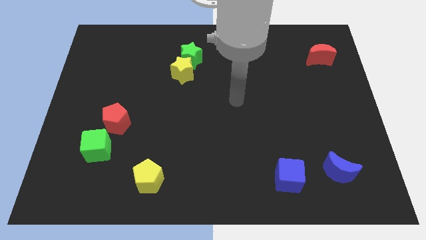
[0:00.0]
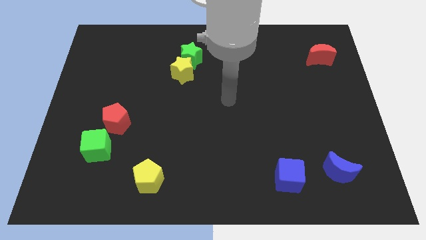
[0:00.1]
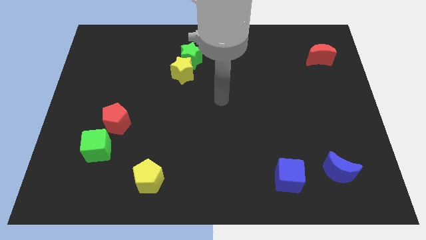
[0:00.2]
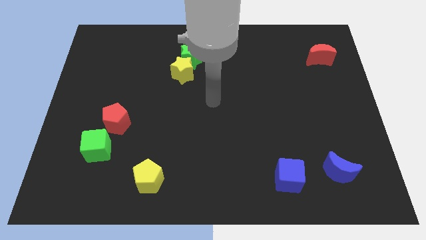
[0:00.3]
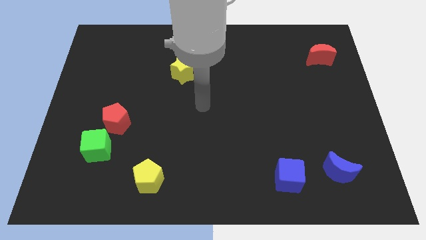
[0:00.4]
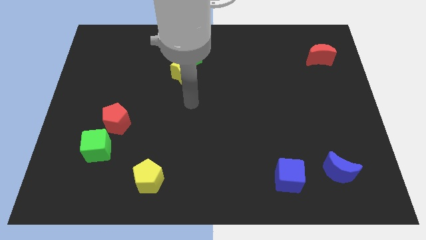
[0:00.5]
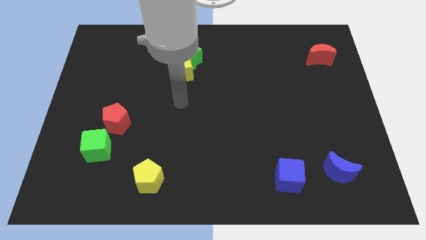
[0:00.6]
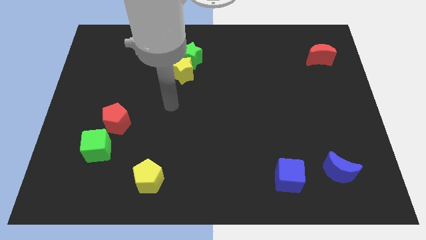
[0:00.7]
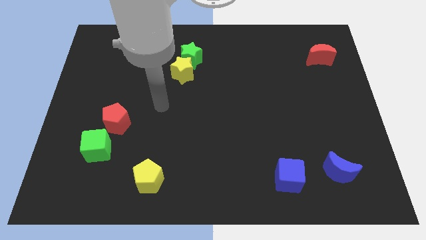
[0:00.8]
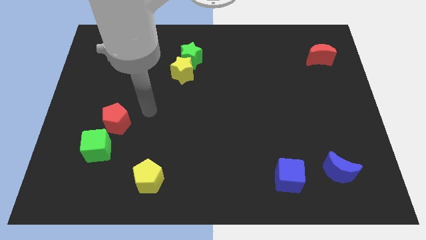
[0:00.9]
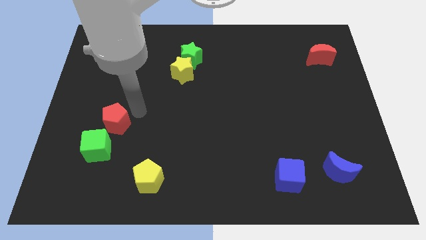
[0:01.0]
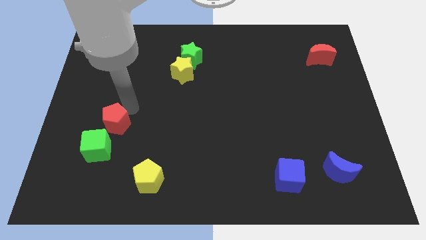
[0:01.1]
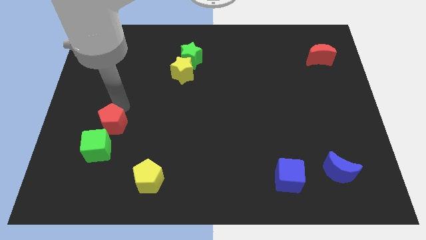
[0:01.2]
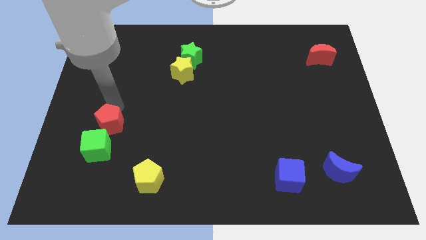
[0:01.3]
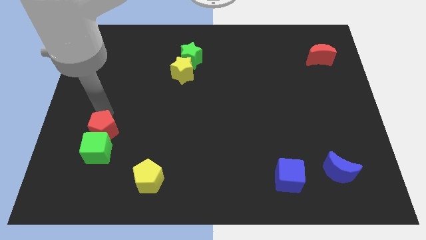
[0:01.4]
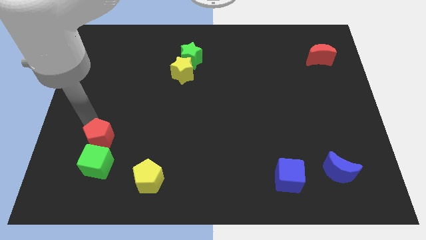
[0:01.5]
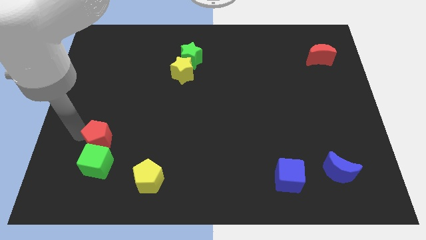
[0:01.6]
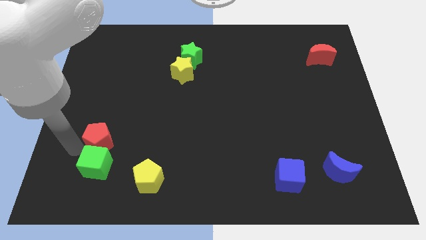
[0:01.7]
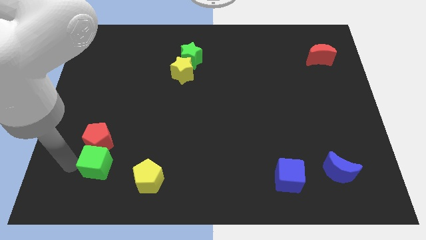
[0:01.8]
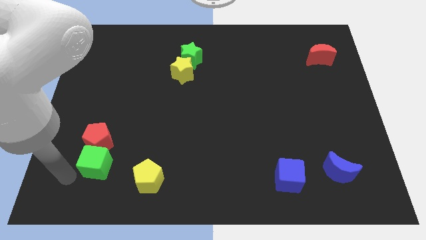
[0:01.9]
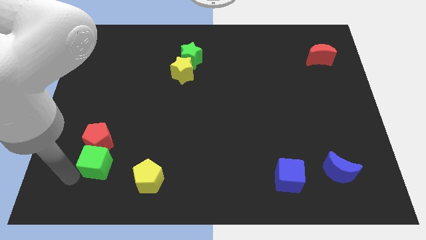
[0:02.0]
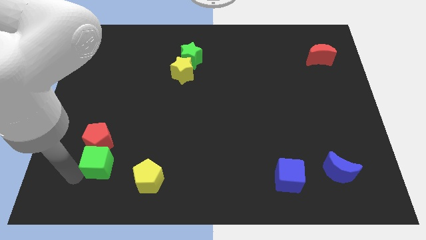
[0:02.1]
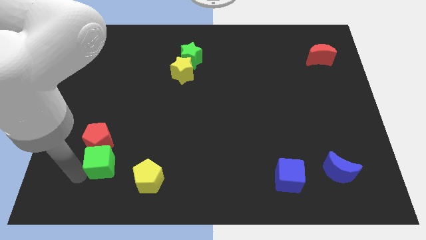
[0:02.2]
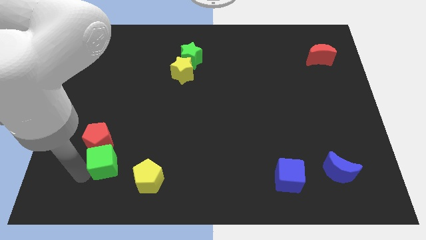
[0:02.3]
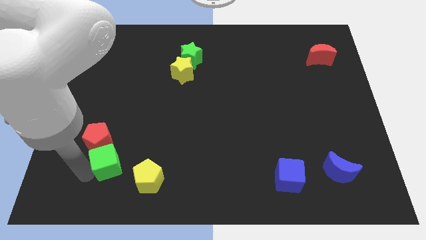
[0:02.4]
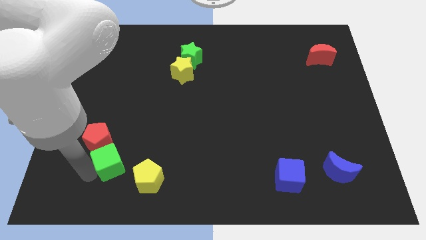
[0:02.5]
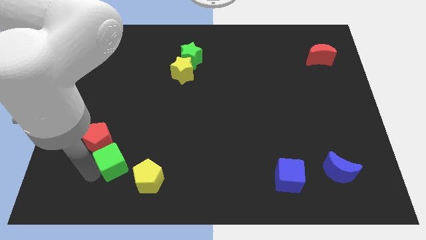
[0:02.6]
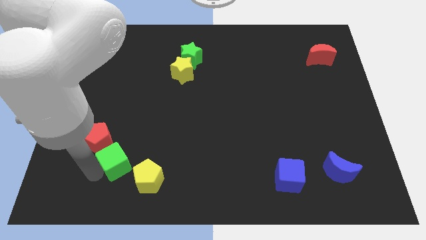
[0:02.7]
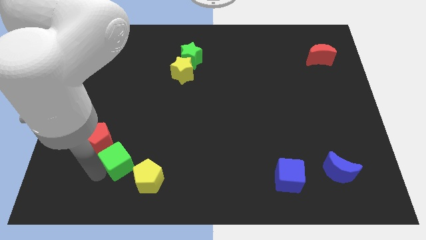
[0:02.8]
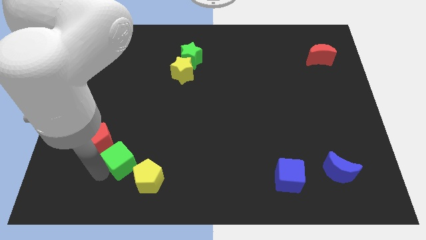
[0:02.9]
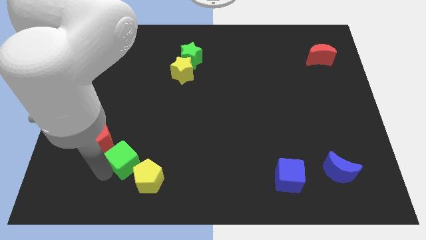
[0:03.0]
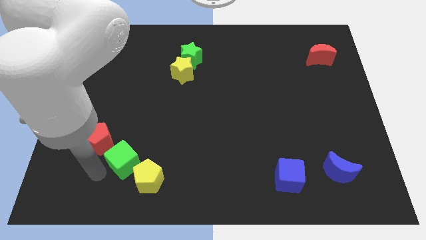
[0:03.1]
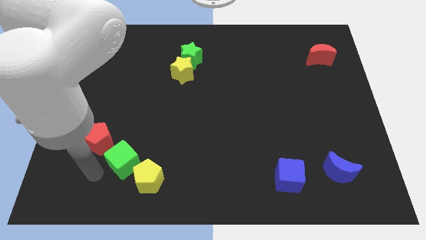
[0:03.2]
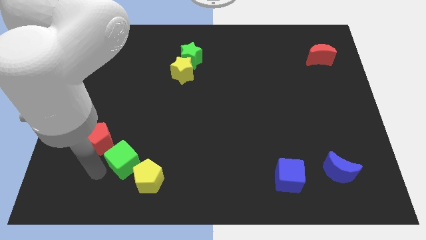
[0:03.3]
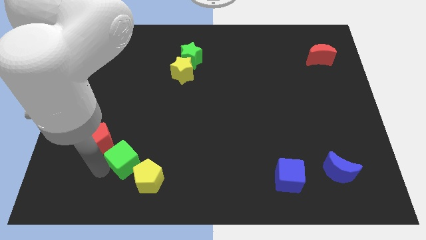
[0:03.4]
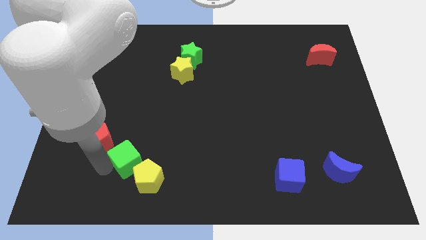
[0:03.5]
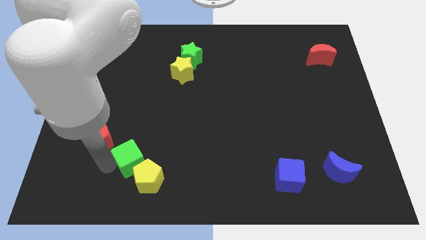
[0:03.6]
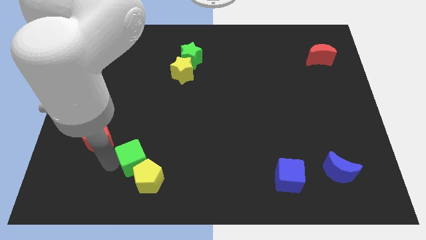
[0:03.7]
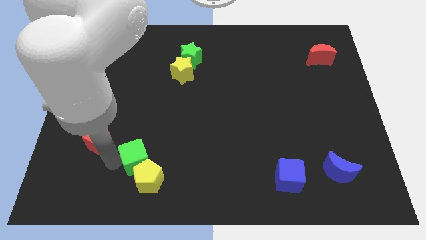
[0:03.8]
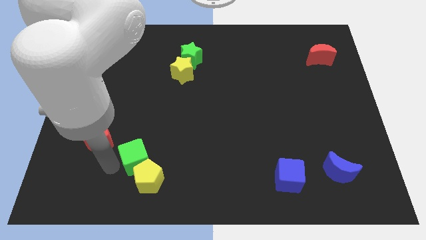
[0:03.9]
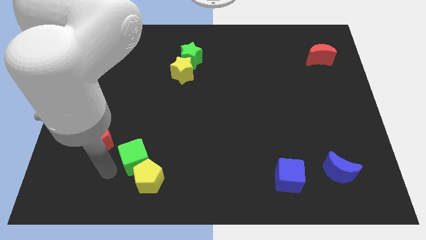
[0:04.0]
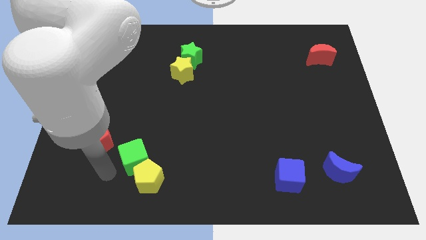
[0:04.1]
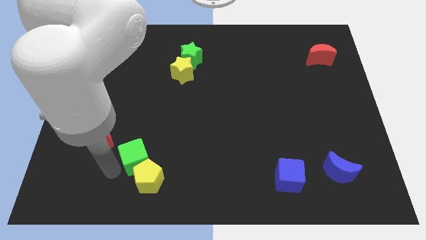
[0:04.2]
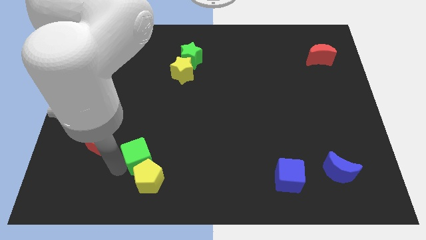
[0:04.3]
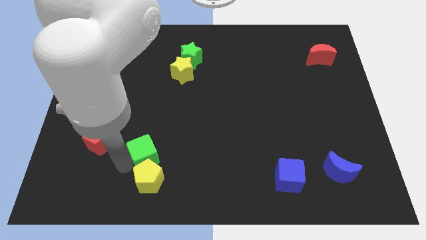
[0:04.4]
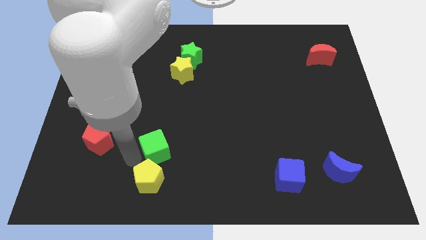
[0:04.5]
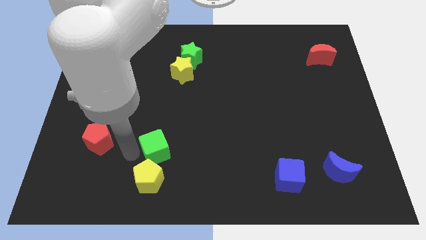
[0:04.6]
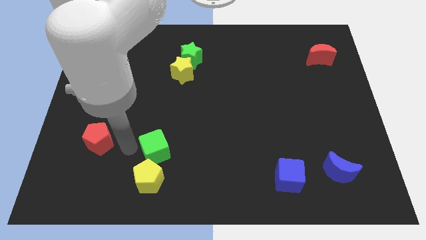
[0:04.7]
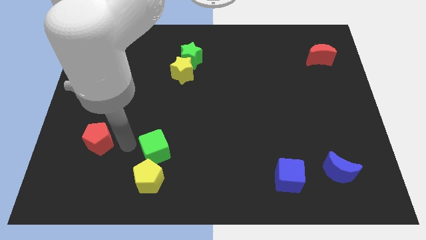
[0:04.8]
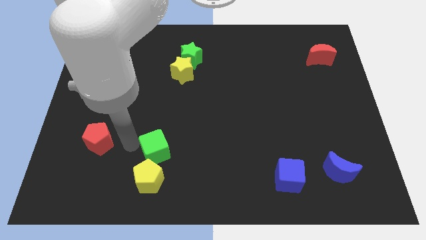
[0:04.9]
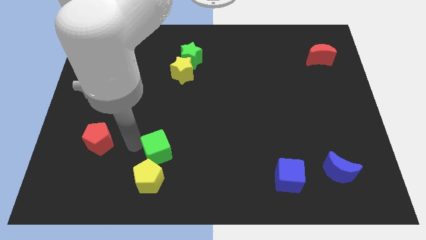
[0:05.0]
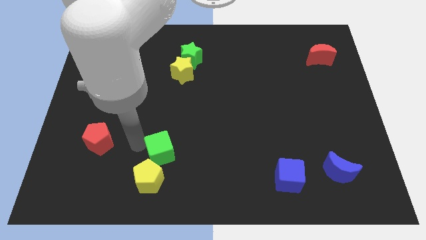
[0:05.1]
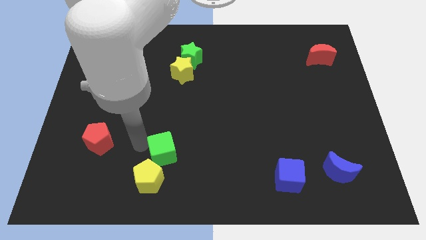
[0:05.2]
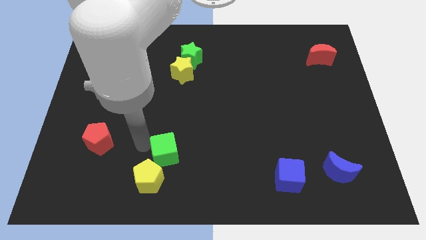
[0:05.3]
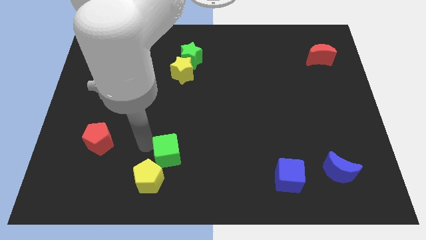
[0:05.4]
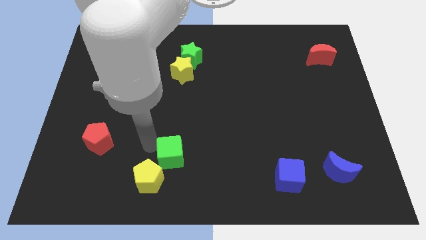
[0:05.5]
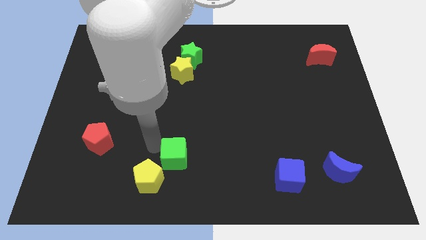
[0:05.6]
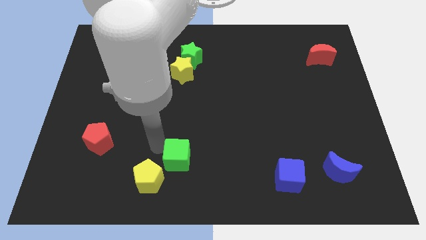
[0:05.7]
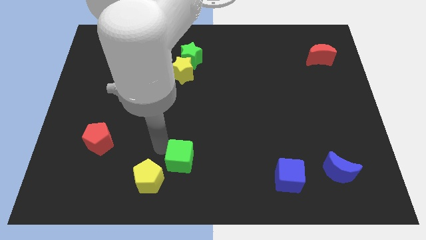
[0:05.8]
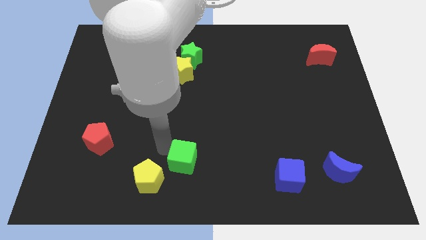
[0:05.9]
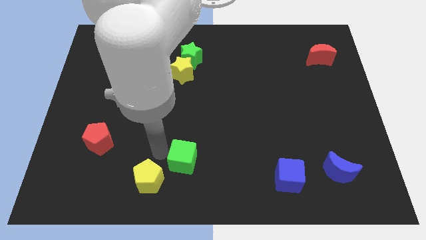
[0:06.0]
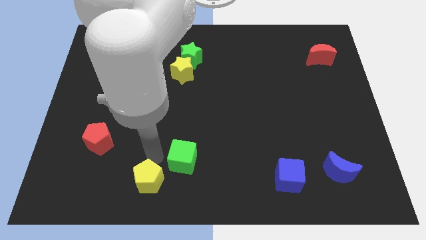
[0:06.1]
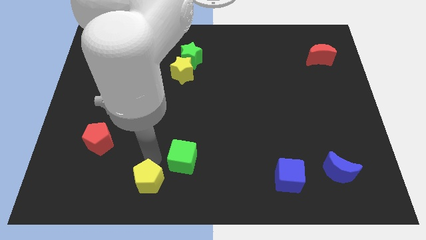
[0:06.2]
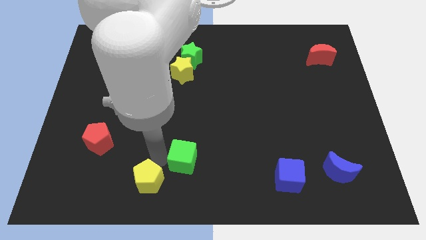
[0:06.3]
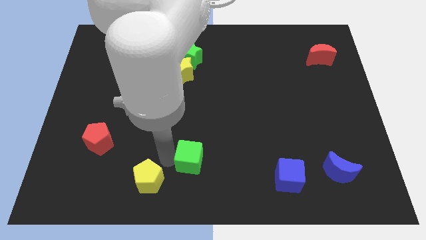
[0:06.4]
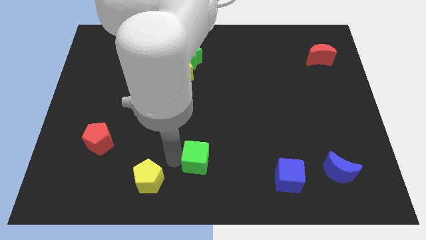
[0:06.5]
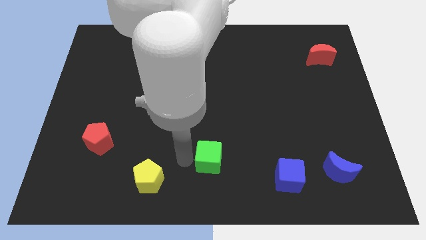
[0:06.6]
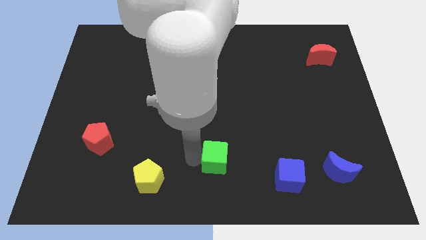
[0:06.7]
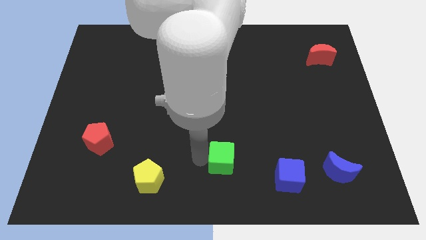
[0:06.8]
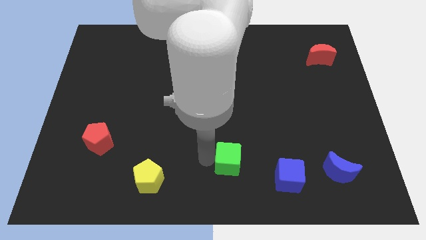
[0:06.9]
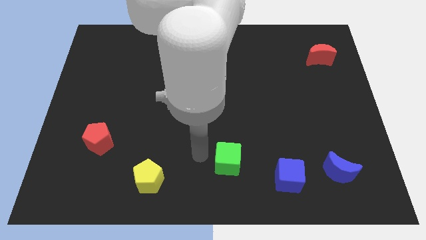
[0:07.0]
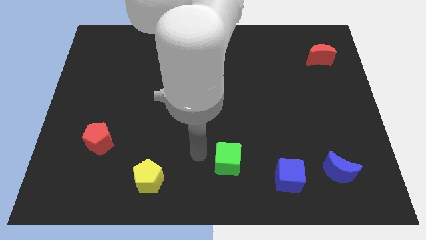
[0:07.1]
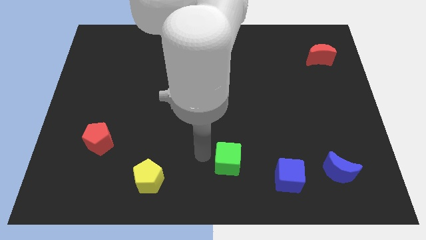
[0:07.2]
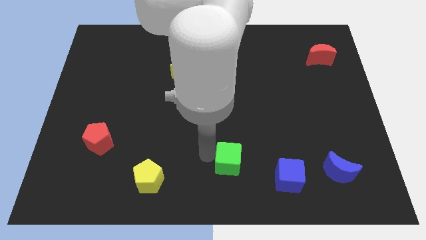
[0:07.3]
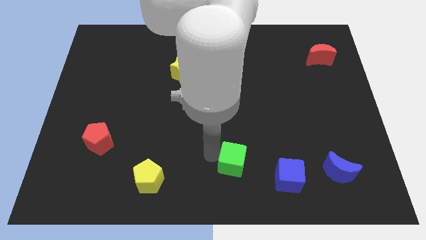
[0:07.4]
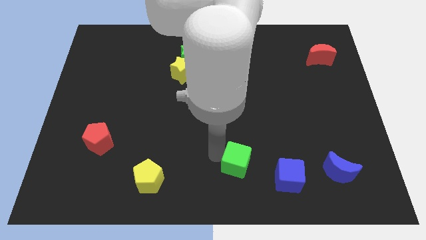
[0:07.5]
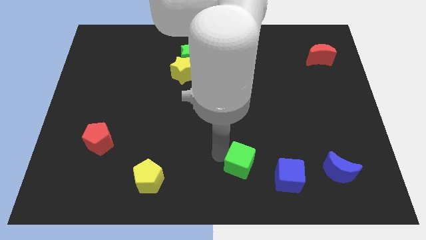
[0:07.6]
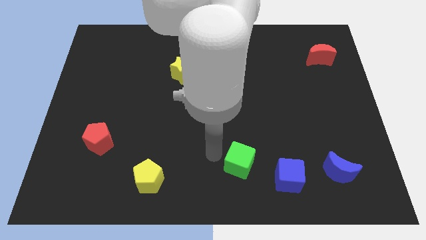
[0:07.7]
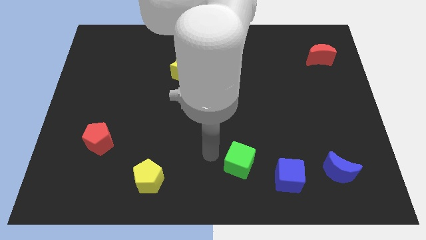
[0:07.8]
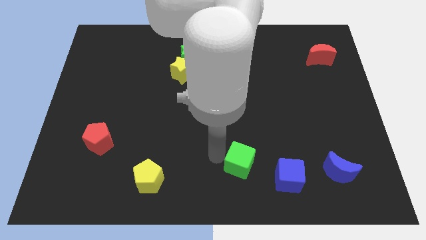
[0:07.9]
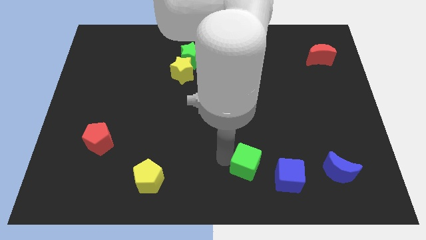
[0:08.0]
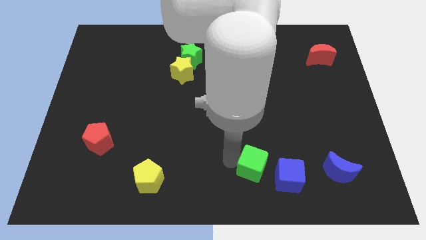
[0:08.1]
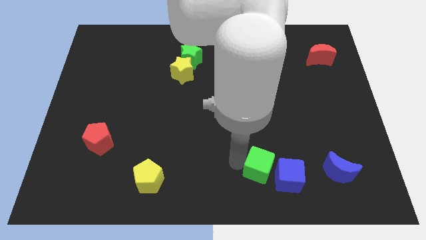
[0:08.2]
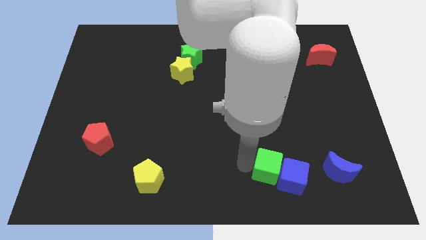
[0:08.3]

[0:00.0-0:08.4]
slide the green cube left of the blue moon
